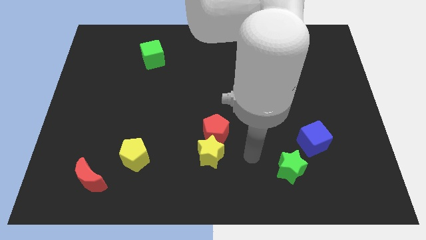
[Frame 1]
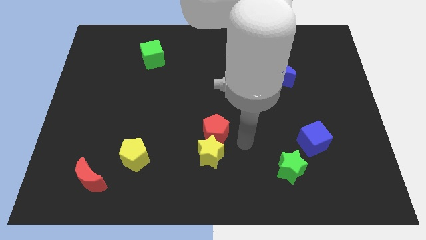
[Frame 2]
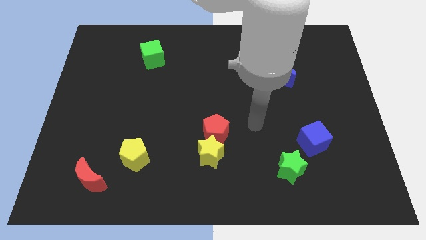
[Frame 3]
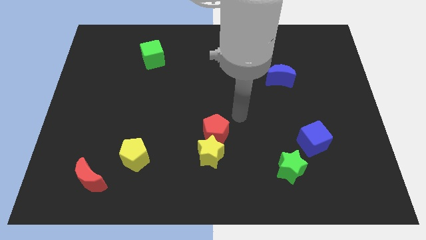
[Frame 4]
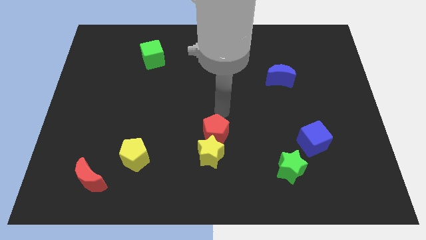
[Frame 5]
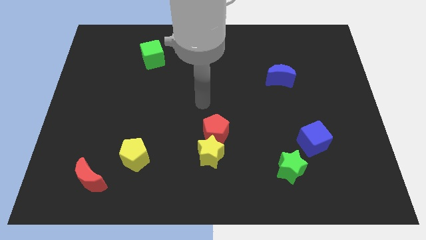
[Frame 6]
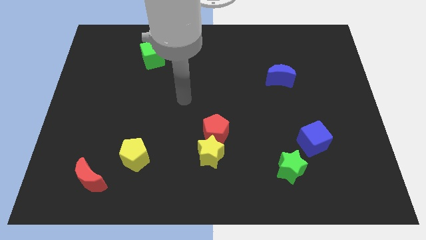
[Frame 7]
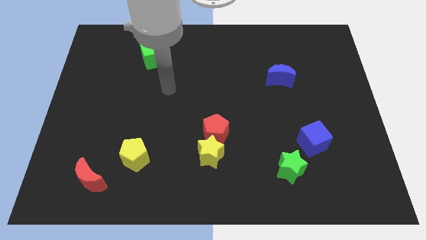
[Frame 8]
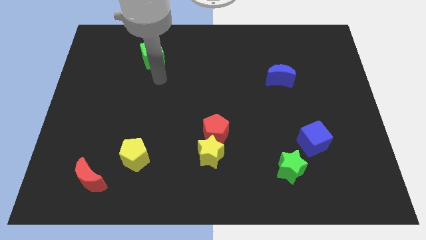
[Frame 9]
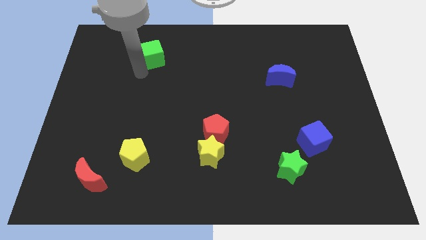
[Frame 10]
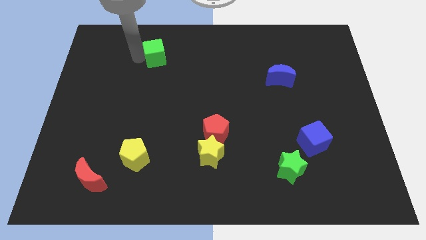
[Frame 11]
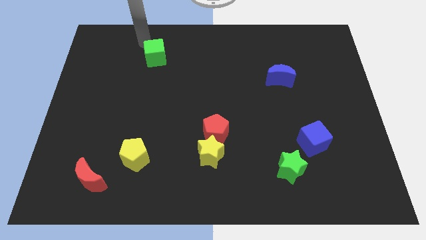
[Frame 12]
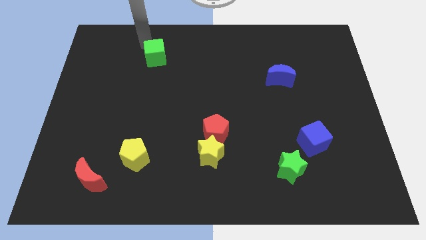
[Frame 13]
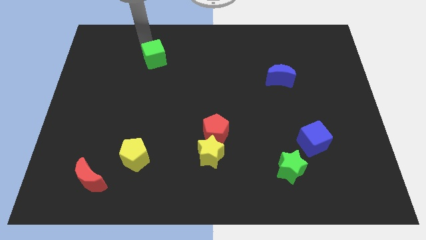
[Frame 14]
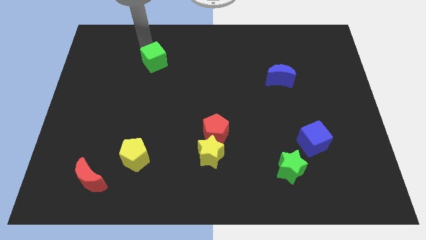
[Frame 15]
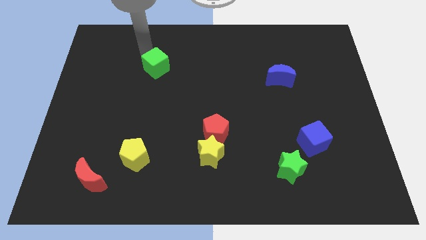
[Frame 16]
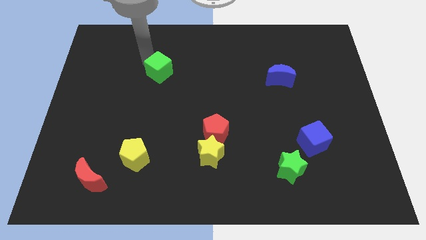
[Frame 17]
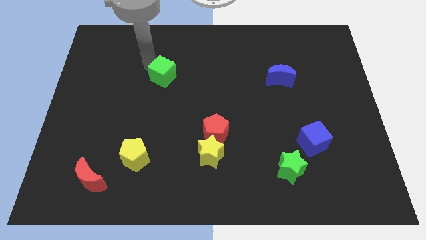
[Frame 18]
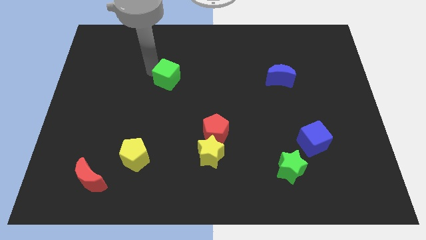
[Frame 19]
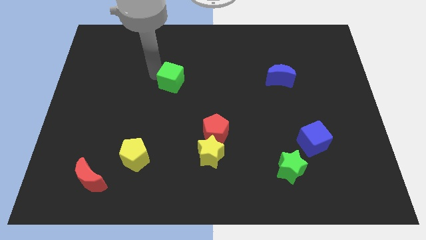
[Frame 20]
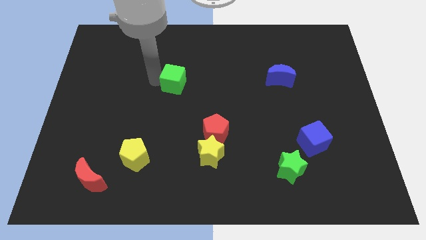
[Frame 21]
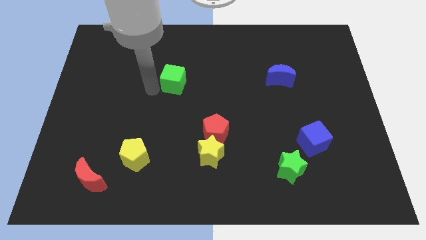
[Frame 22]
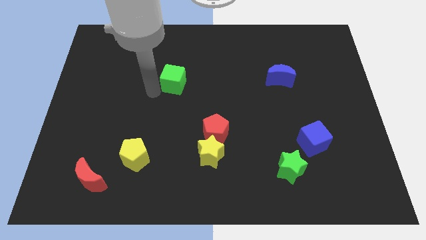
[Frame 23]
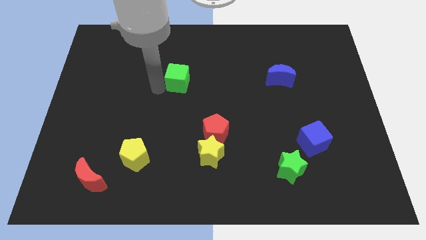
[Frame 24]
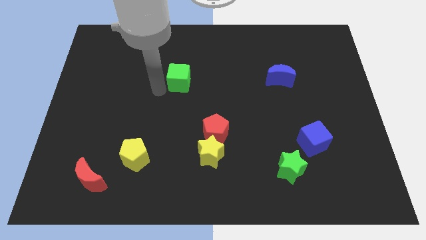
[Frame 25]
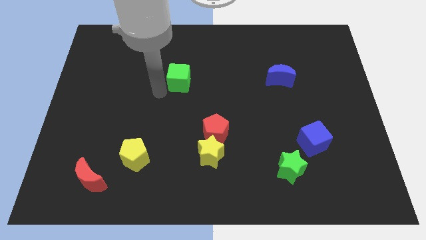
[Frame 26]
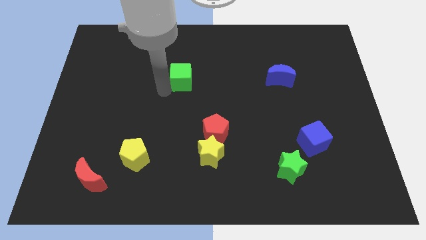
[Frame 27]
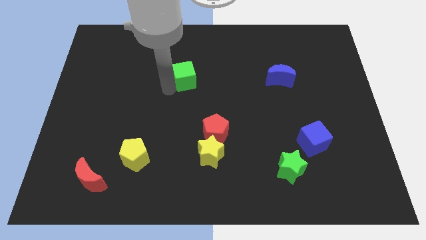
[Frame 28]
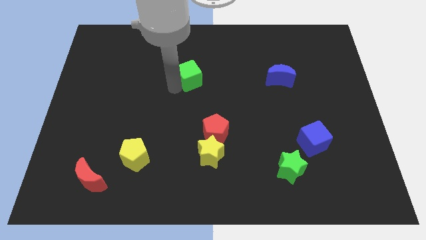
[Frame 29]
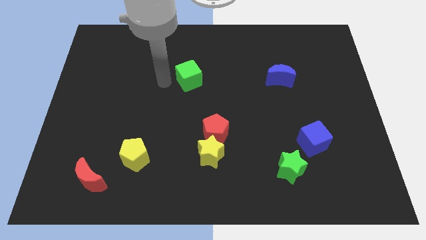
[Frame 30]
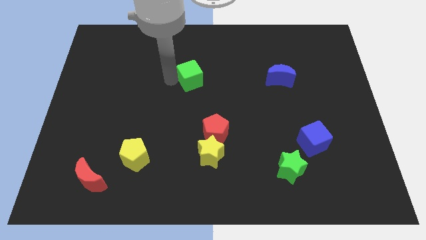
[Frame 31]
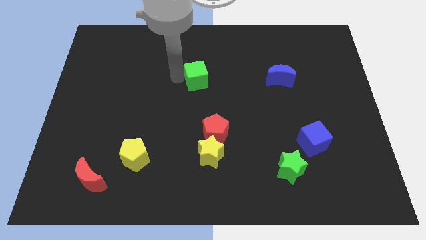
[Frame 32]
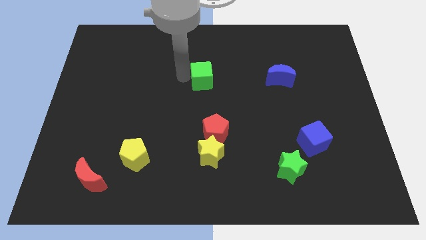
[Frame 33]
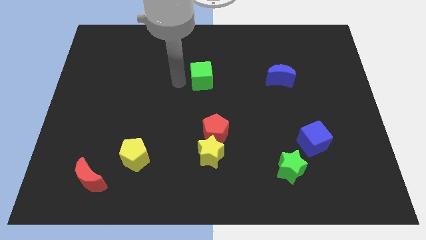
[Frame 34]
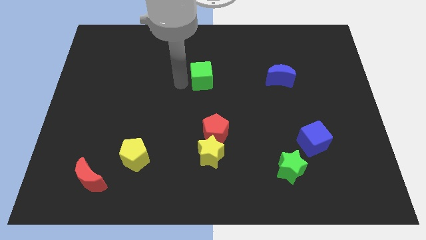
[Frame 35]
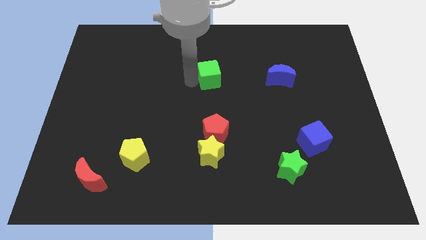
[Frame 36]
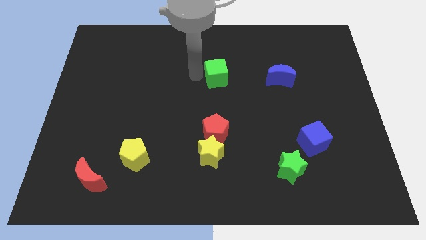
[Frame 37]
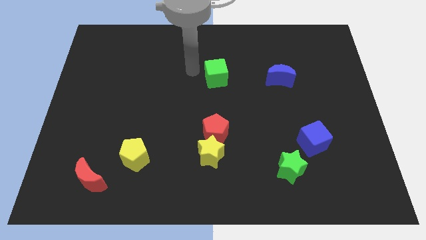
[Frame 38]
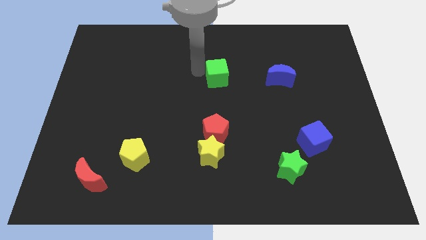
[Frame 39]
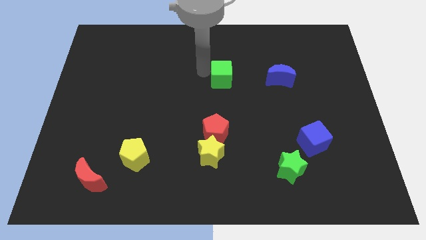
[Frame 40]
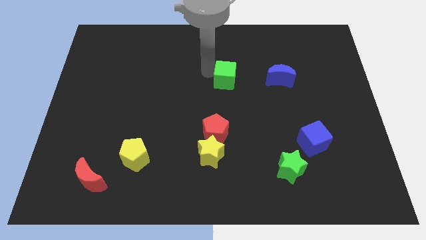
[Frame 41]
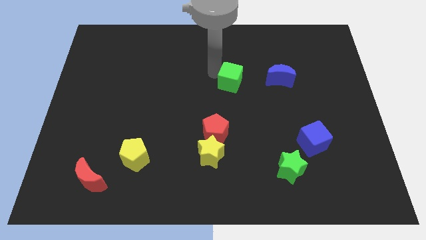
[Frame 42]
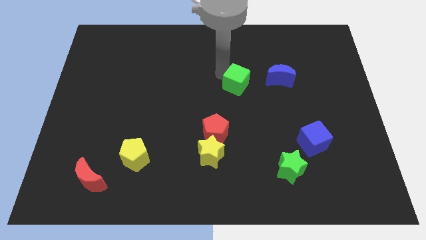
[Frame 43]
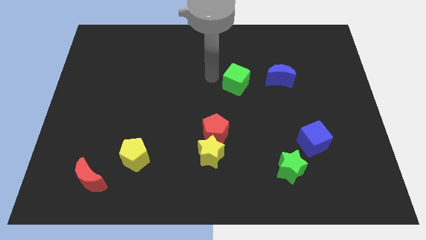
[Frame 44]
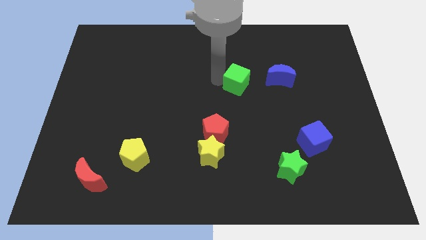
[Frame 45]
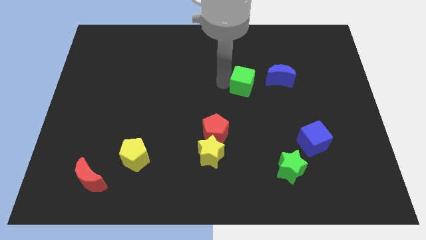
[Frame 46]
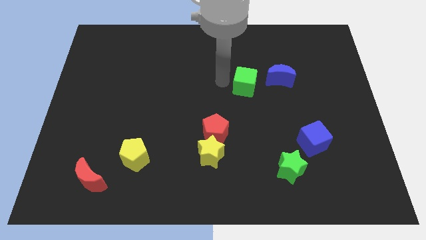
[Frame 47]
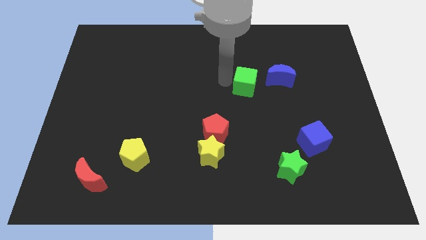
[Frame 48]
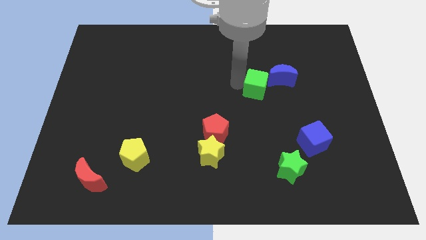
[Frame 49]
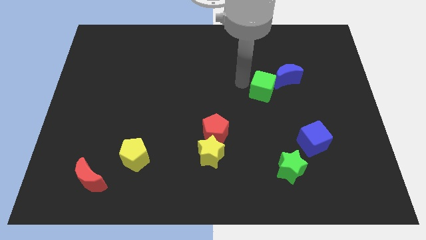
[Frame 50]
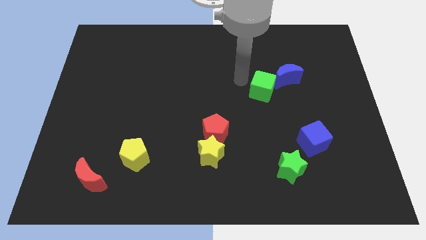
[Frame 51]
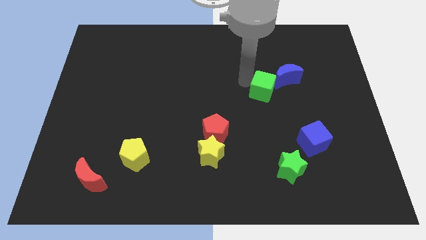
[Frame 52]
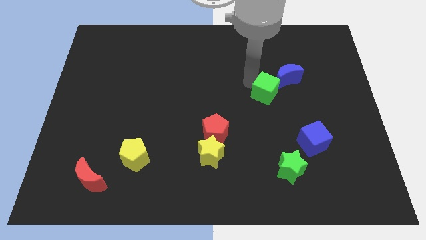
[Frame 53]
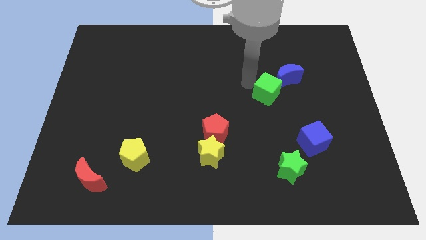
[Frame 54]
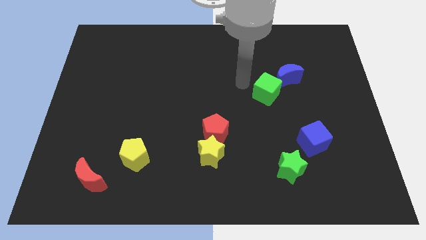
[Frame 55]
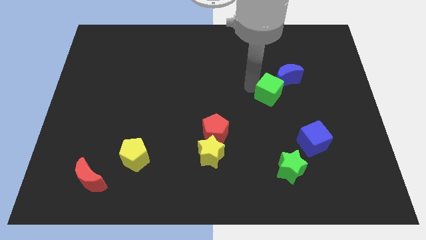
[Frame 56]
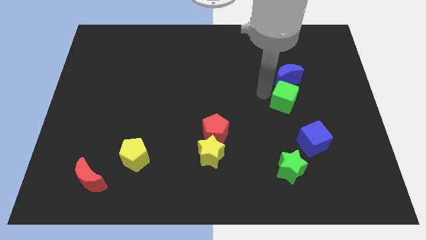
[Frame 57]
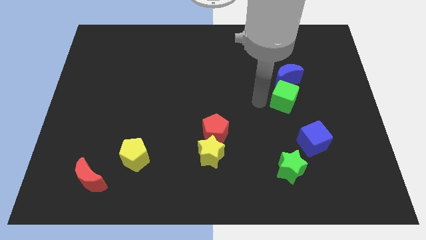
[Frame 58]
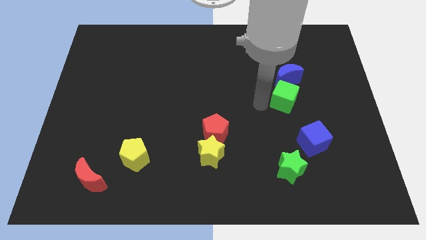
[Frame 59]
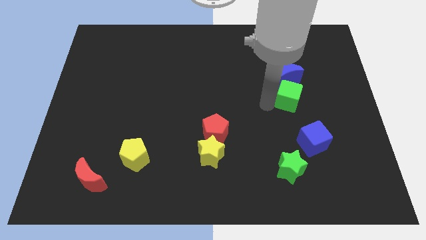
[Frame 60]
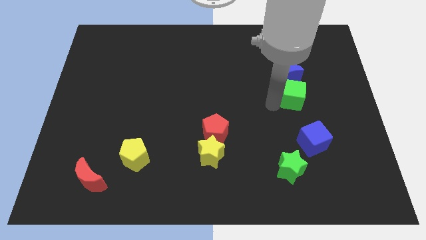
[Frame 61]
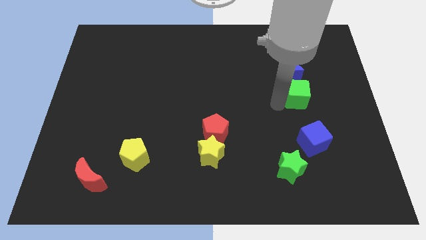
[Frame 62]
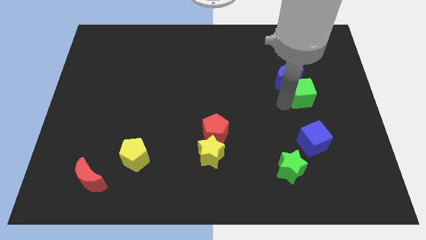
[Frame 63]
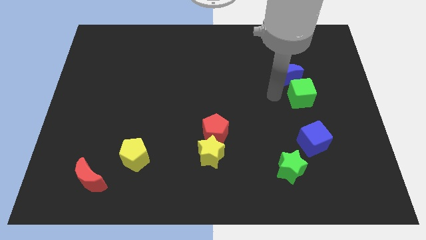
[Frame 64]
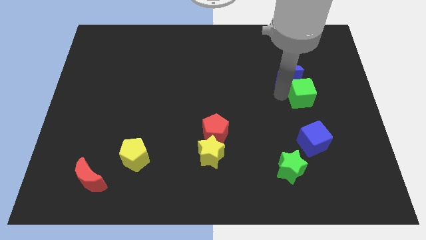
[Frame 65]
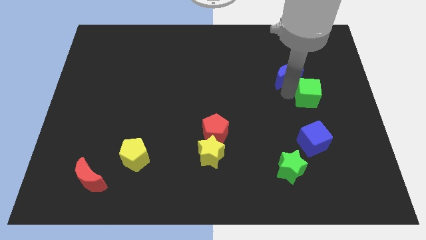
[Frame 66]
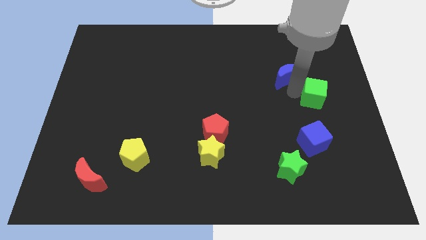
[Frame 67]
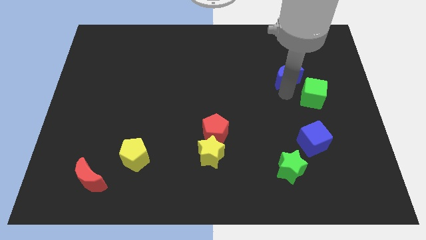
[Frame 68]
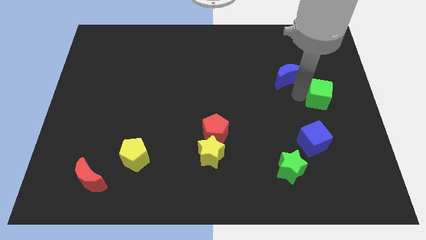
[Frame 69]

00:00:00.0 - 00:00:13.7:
put the green cube to the right side of the board

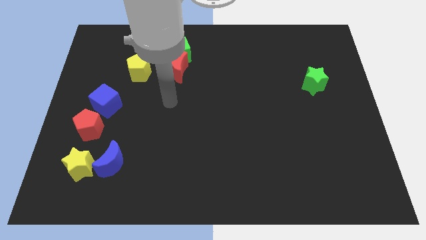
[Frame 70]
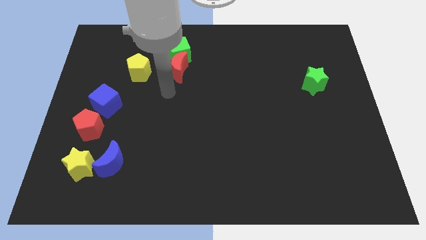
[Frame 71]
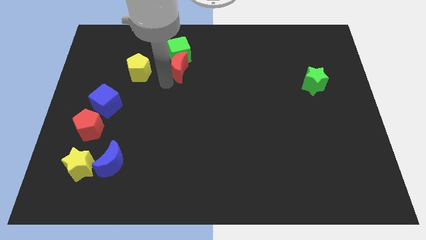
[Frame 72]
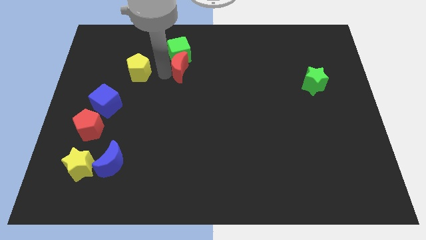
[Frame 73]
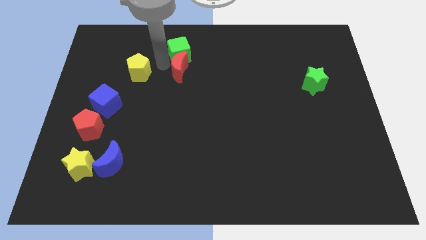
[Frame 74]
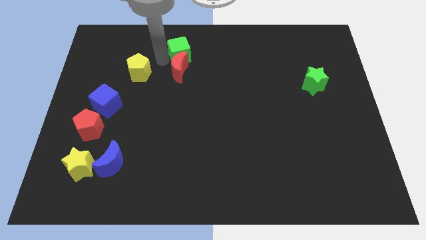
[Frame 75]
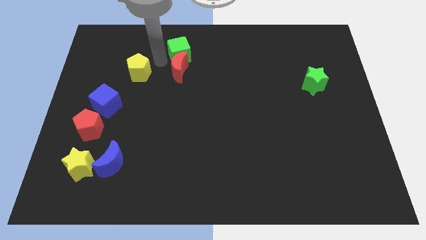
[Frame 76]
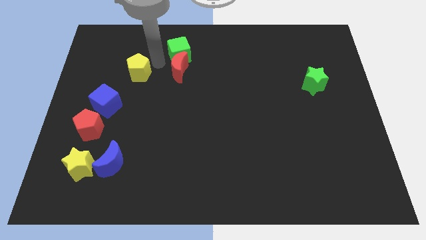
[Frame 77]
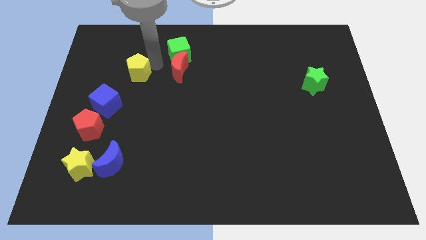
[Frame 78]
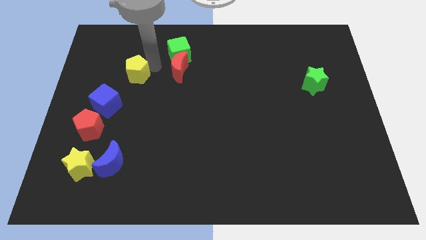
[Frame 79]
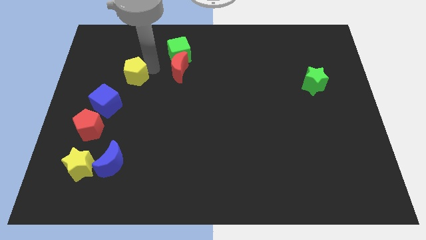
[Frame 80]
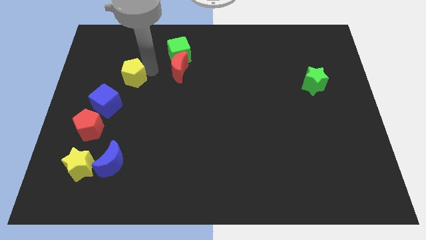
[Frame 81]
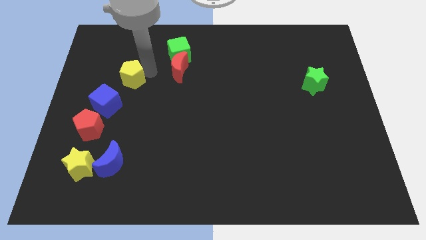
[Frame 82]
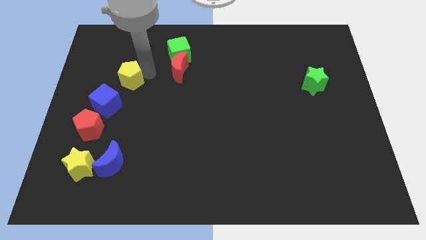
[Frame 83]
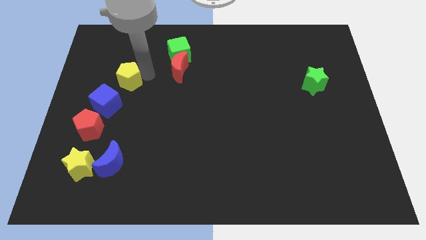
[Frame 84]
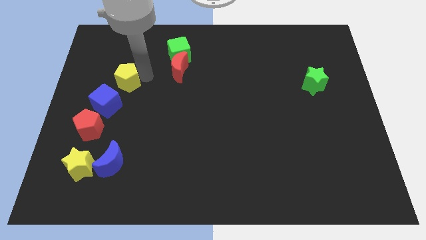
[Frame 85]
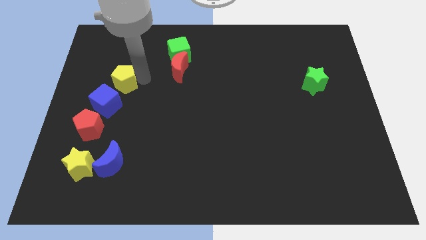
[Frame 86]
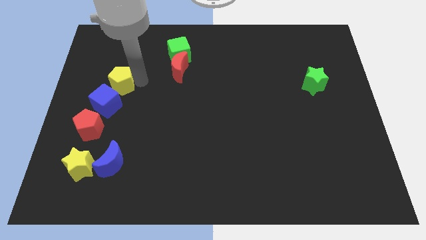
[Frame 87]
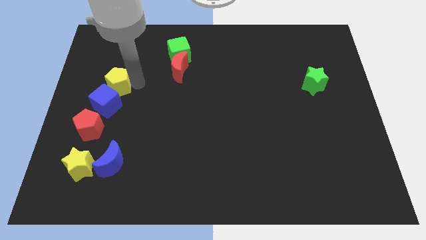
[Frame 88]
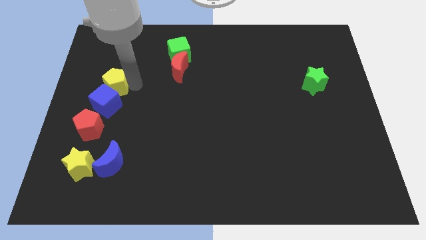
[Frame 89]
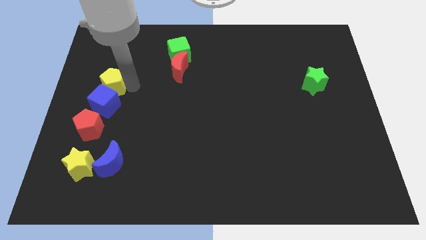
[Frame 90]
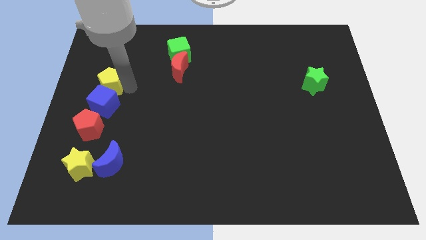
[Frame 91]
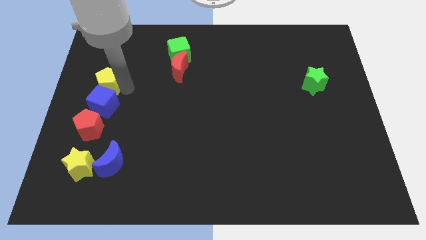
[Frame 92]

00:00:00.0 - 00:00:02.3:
move the yellow pentagon to the center left
